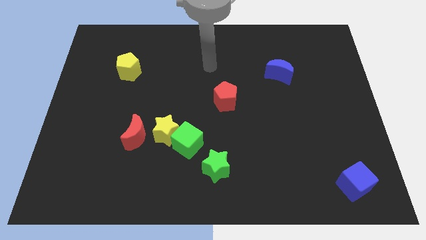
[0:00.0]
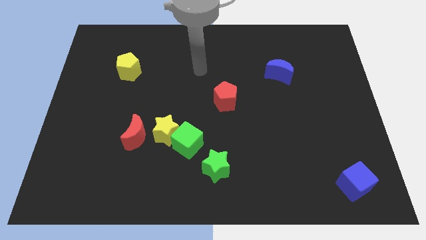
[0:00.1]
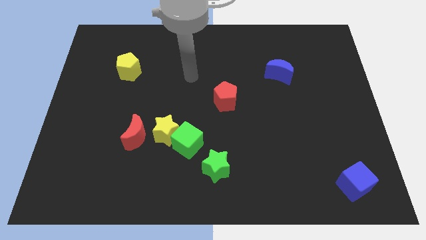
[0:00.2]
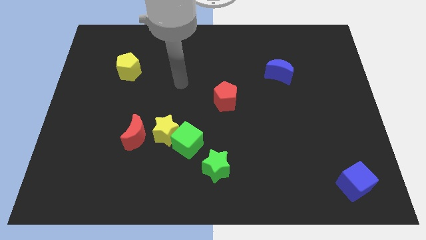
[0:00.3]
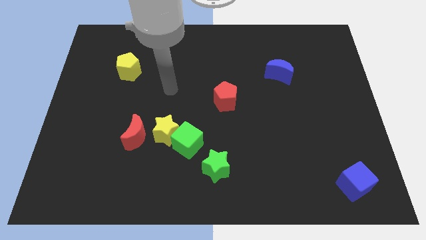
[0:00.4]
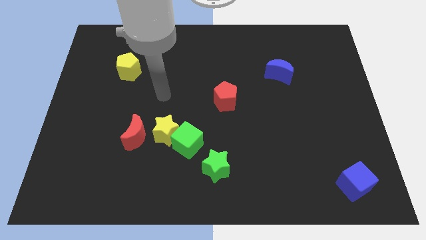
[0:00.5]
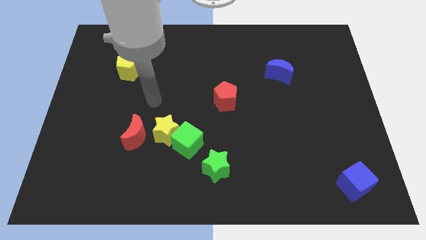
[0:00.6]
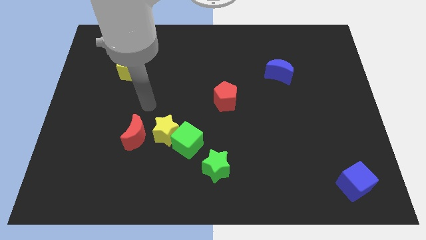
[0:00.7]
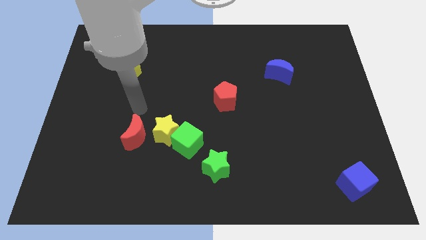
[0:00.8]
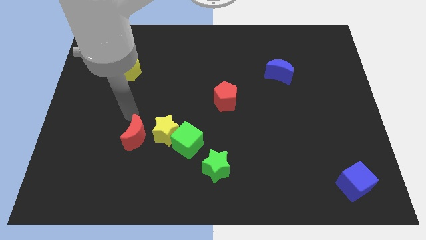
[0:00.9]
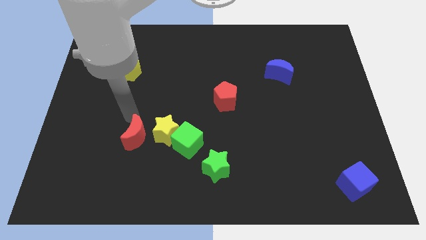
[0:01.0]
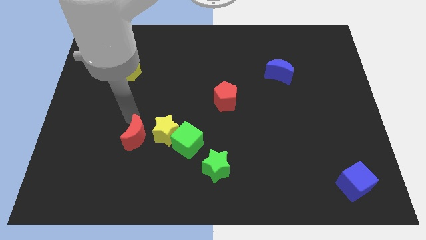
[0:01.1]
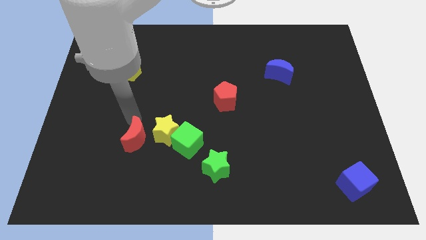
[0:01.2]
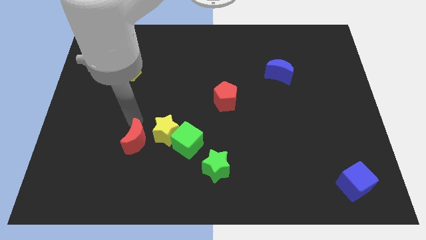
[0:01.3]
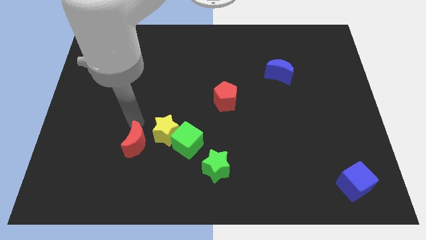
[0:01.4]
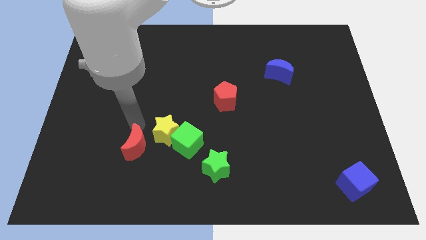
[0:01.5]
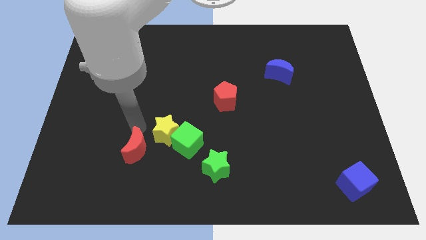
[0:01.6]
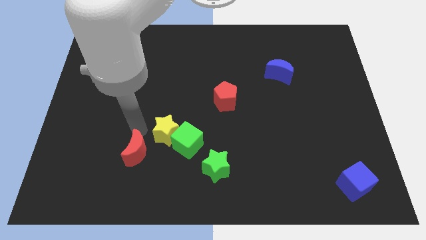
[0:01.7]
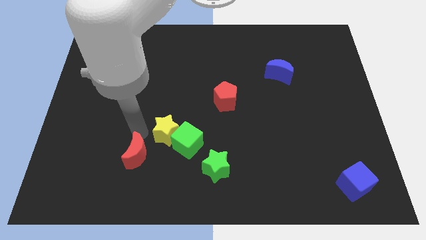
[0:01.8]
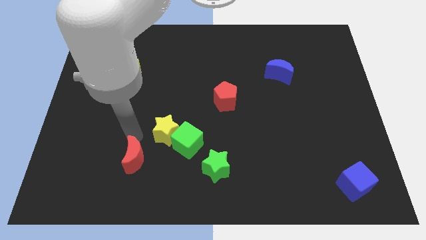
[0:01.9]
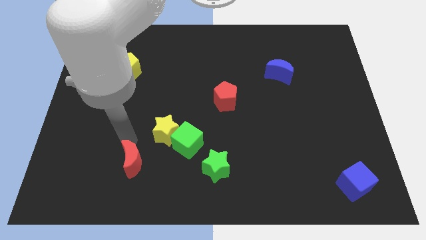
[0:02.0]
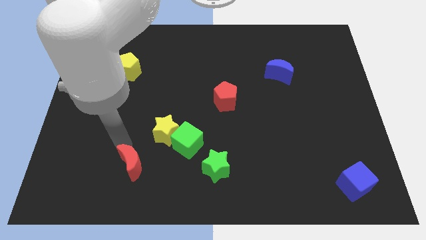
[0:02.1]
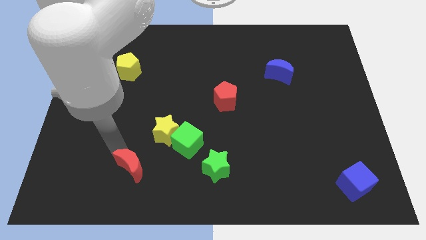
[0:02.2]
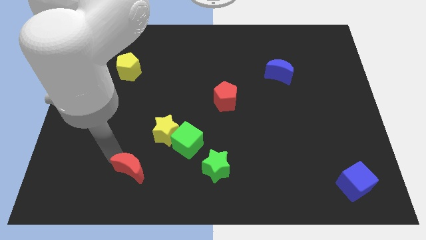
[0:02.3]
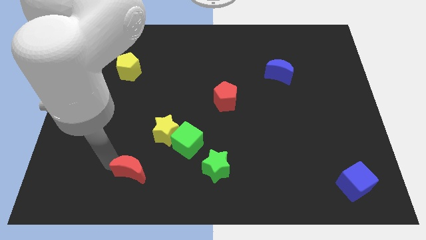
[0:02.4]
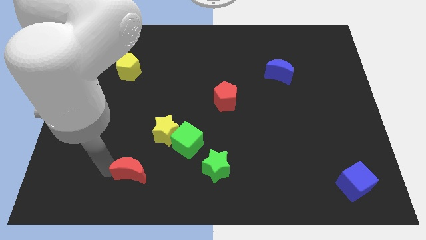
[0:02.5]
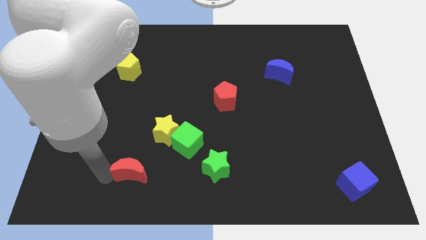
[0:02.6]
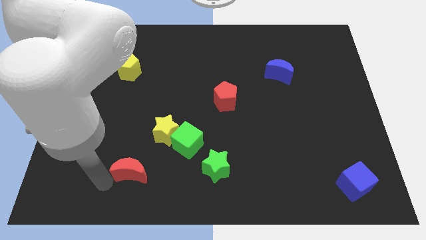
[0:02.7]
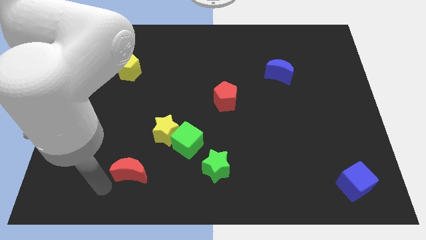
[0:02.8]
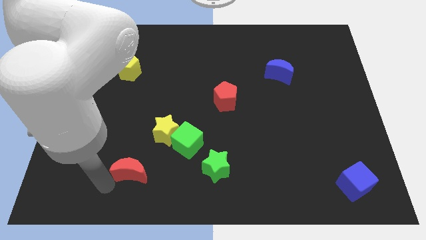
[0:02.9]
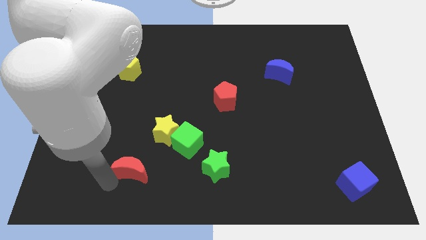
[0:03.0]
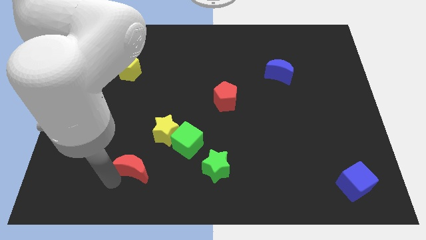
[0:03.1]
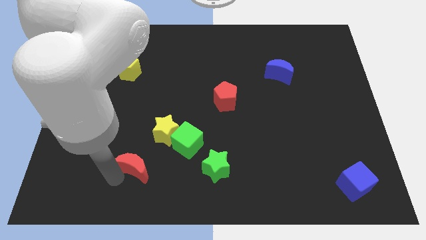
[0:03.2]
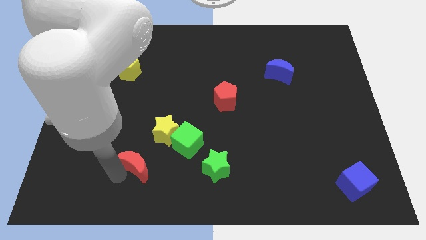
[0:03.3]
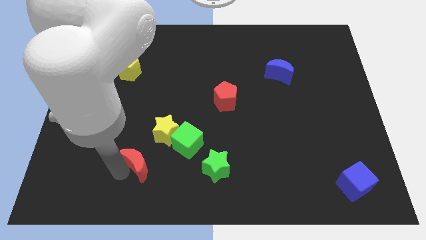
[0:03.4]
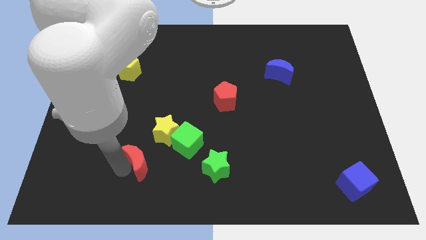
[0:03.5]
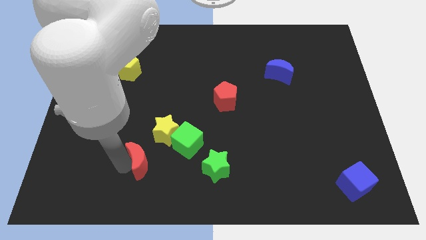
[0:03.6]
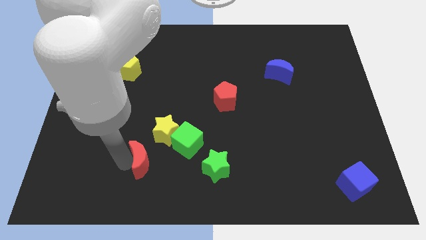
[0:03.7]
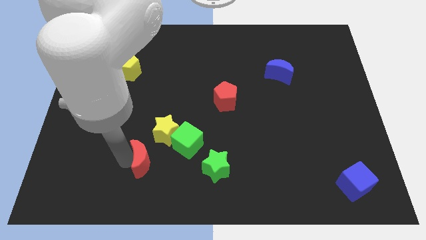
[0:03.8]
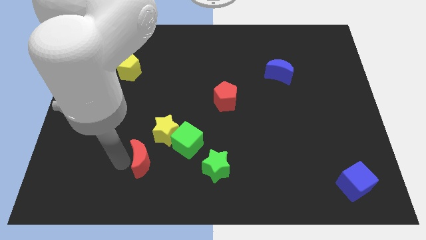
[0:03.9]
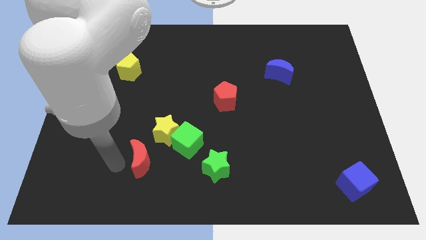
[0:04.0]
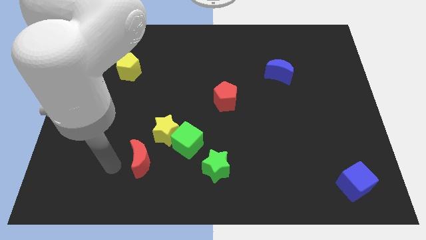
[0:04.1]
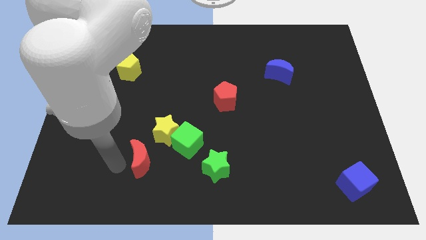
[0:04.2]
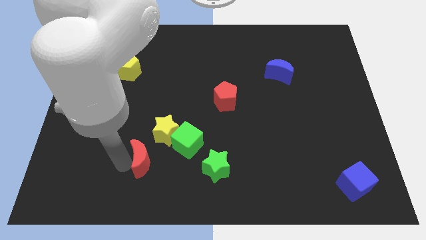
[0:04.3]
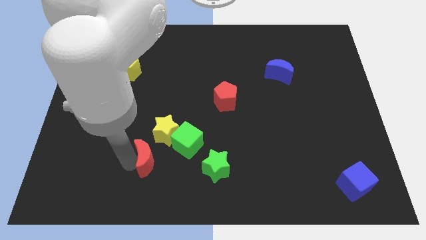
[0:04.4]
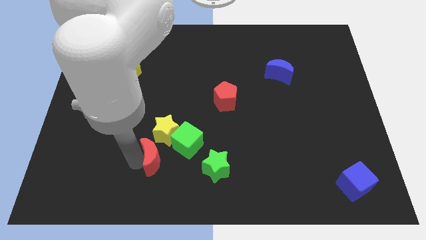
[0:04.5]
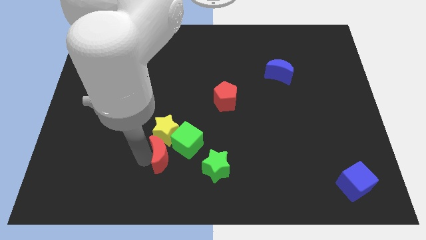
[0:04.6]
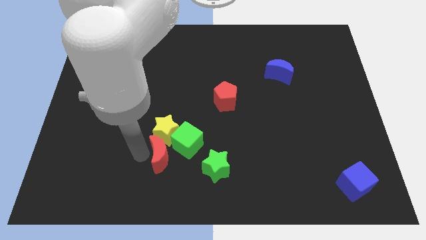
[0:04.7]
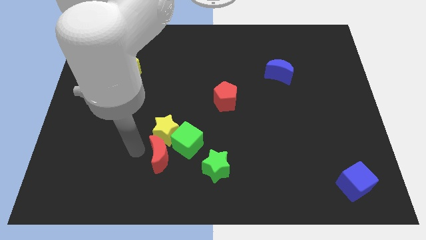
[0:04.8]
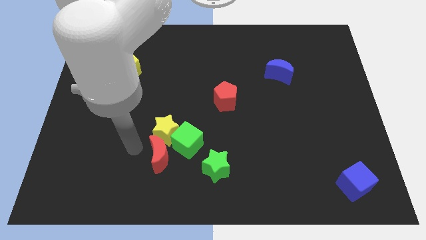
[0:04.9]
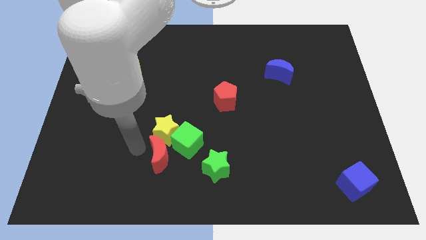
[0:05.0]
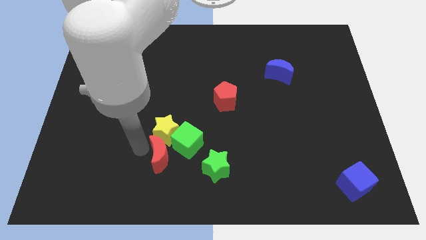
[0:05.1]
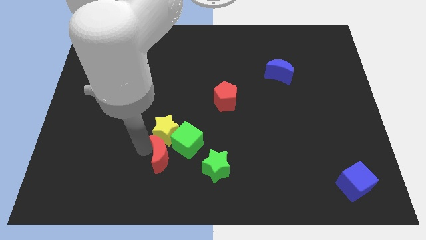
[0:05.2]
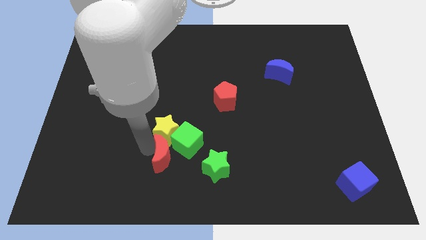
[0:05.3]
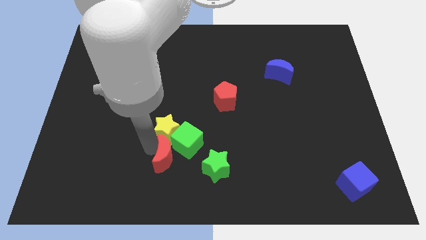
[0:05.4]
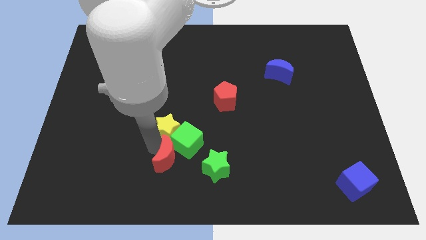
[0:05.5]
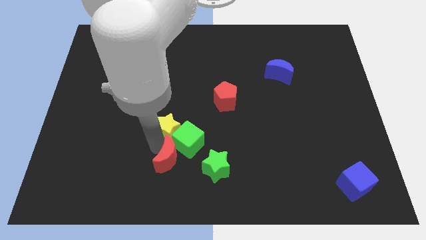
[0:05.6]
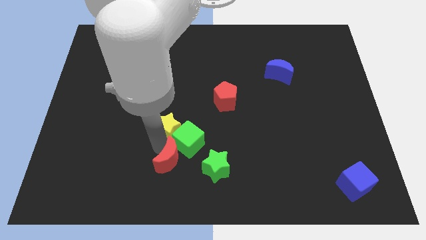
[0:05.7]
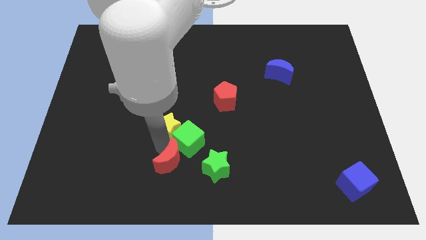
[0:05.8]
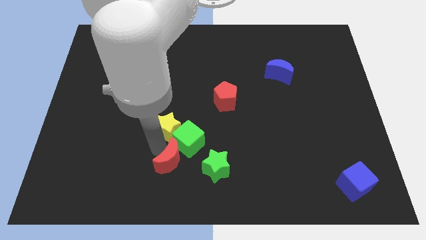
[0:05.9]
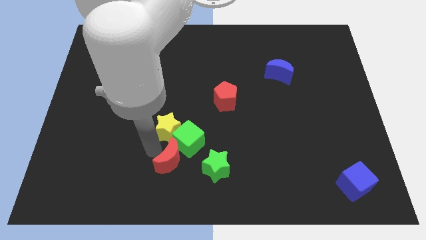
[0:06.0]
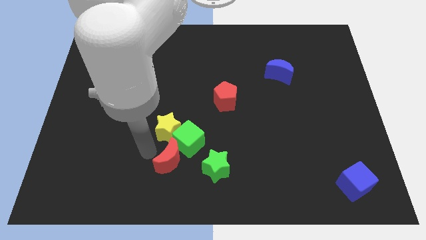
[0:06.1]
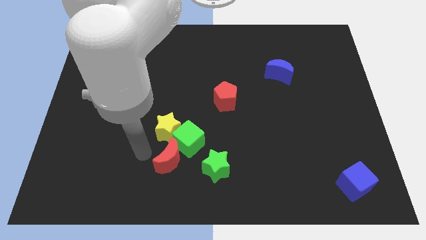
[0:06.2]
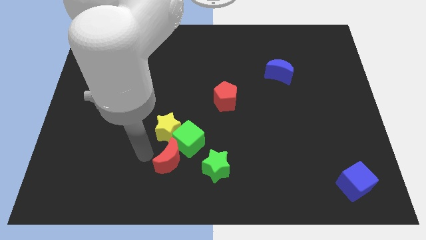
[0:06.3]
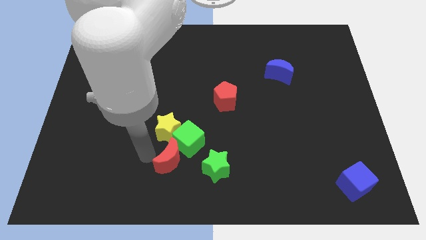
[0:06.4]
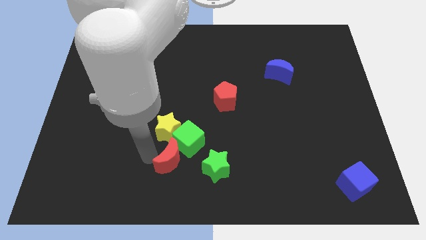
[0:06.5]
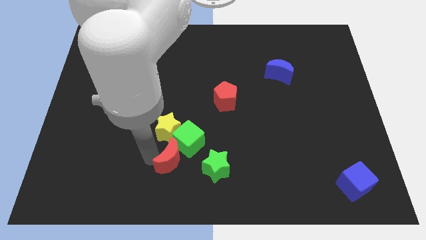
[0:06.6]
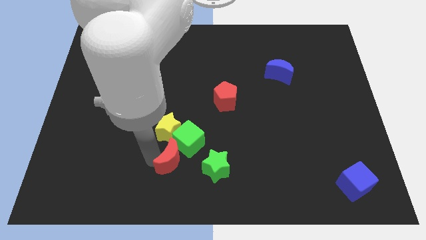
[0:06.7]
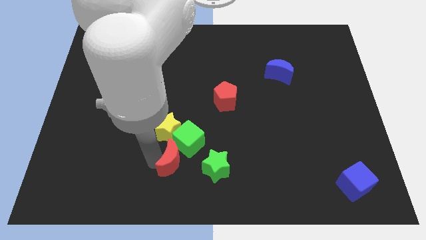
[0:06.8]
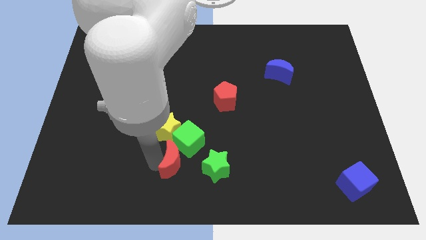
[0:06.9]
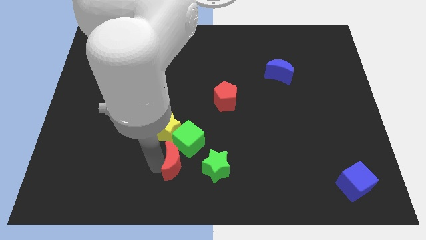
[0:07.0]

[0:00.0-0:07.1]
push the red moon right slightly

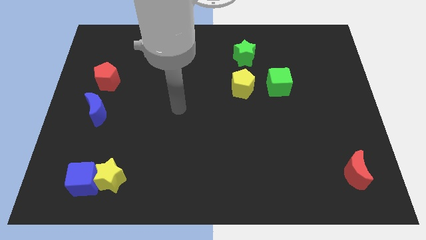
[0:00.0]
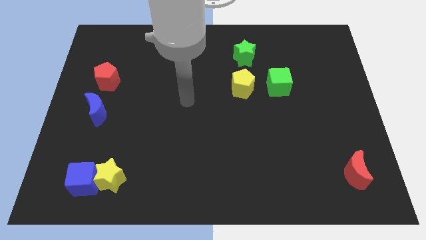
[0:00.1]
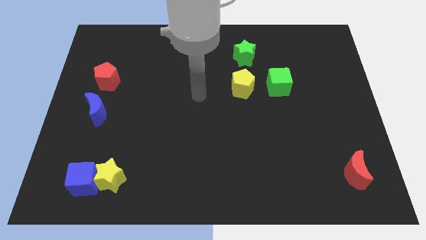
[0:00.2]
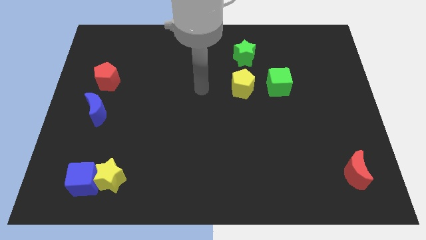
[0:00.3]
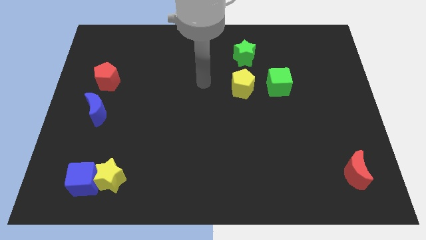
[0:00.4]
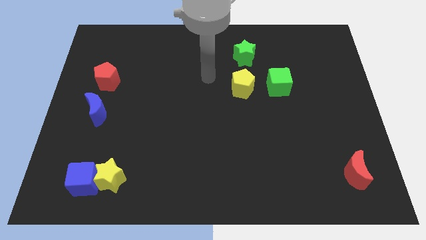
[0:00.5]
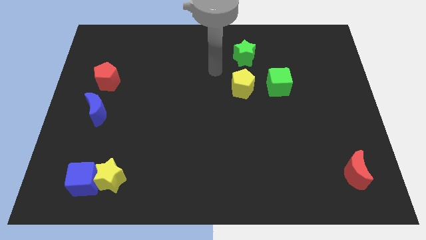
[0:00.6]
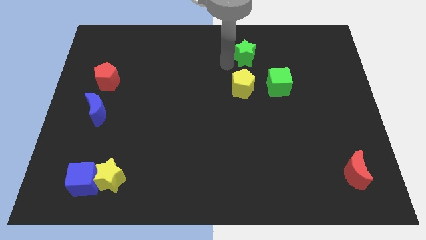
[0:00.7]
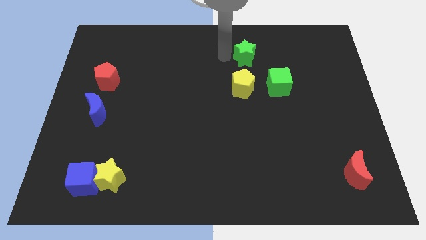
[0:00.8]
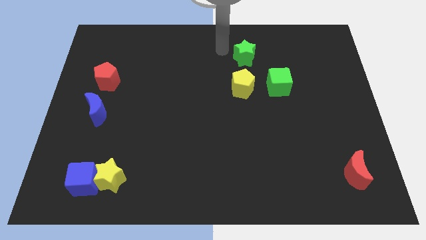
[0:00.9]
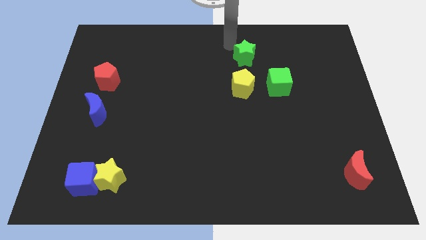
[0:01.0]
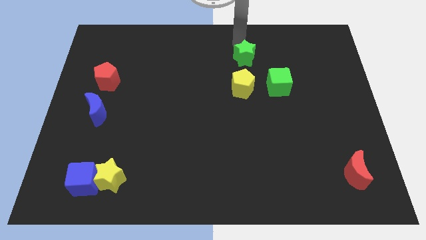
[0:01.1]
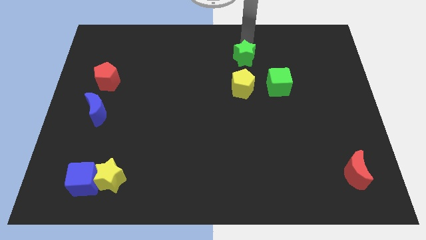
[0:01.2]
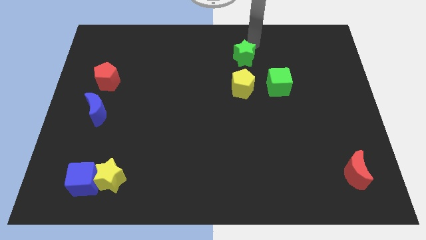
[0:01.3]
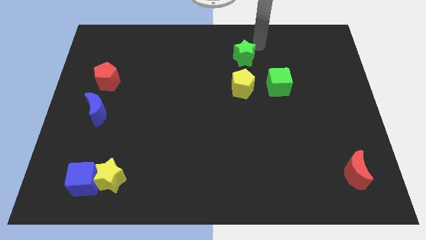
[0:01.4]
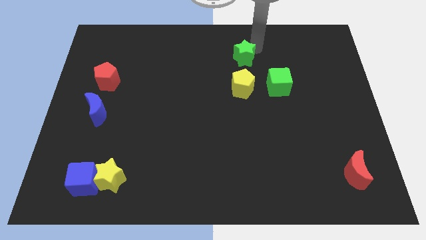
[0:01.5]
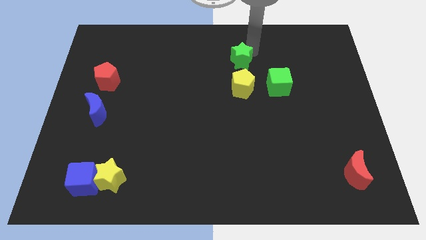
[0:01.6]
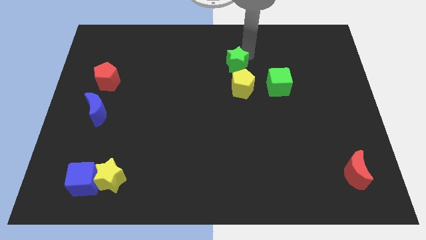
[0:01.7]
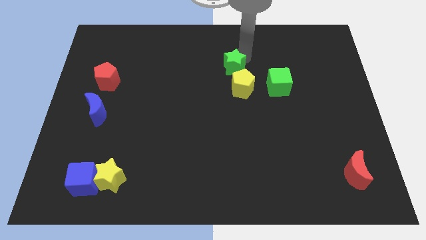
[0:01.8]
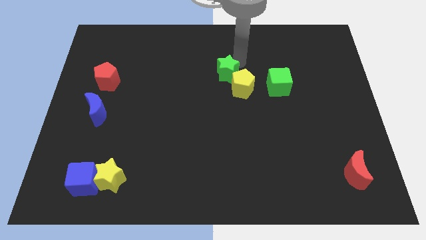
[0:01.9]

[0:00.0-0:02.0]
move the green star somewhat diagonally downwards and to the left
